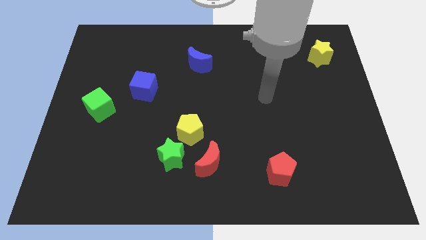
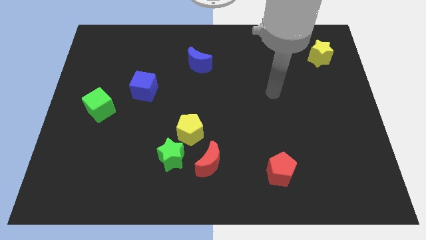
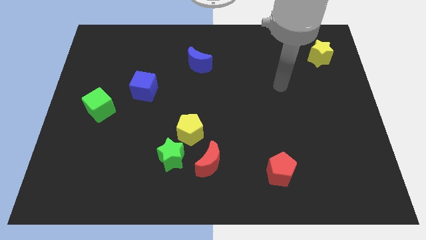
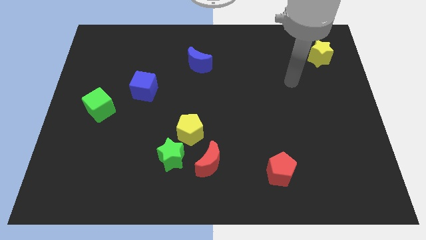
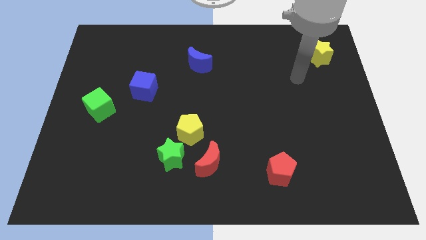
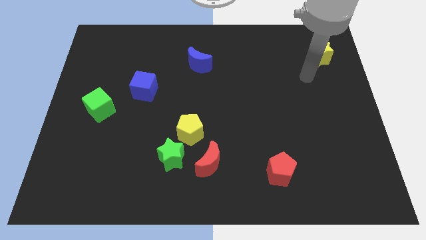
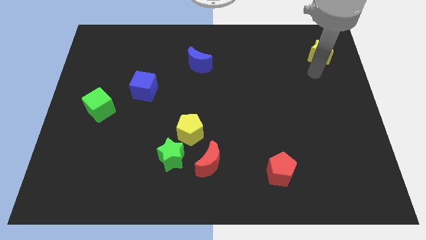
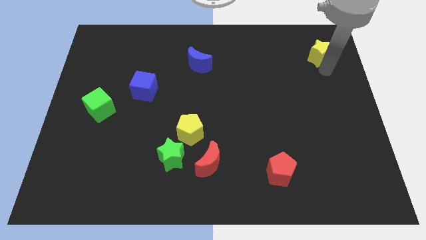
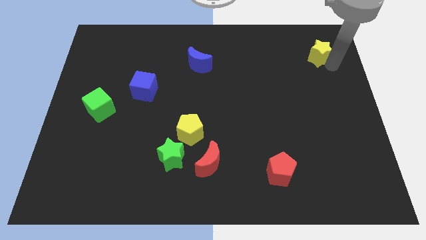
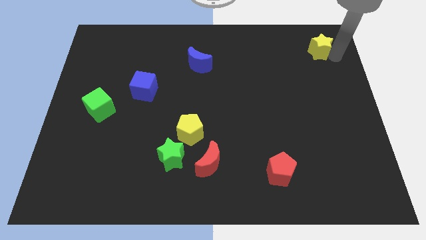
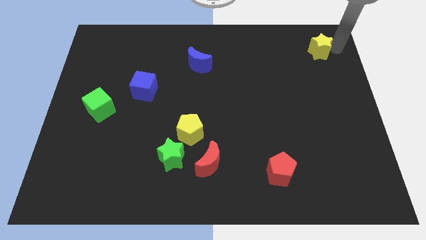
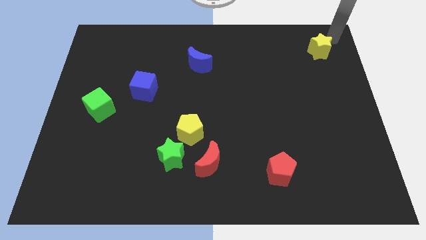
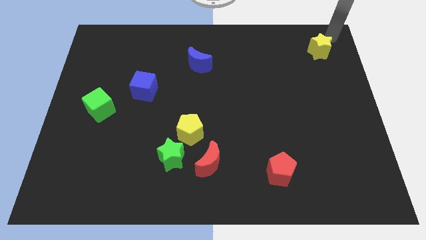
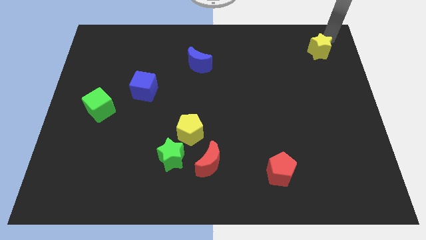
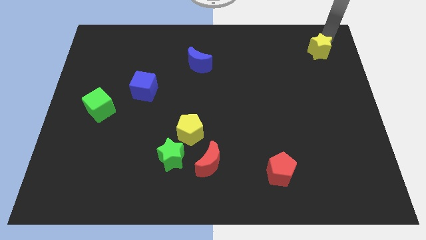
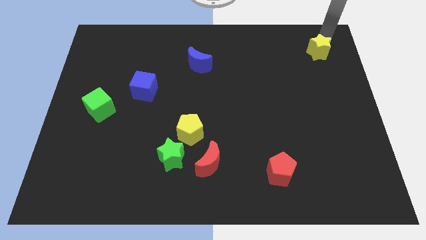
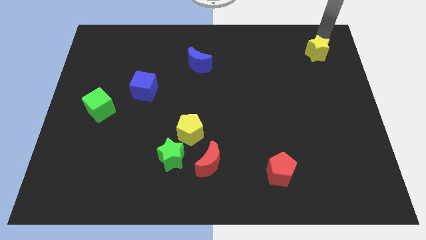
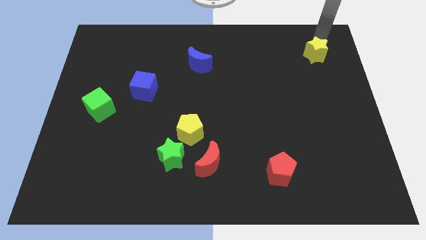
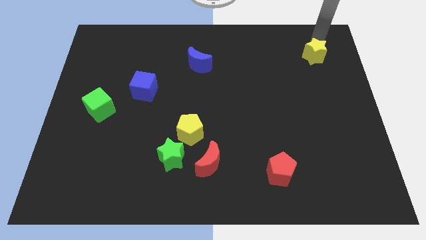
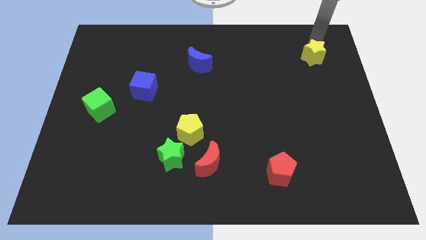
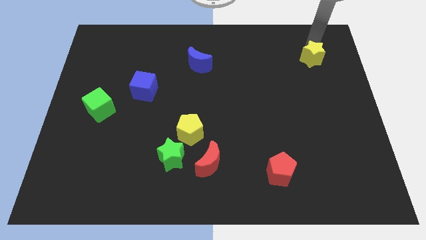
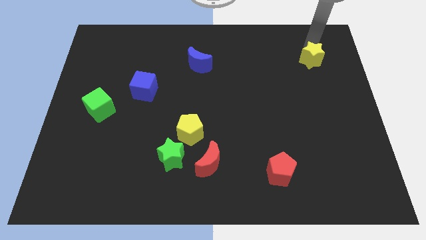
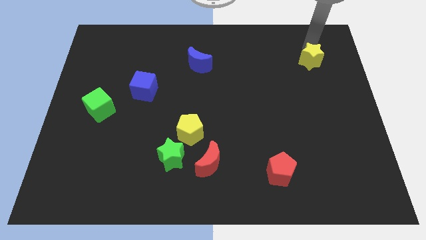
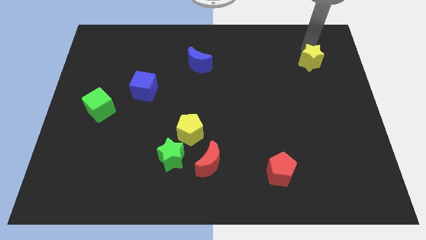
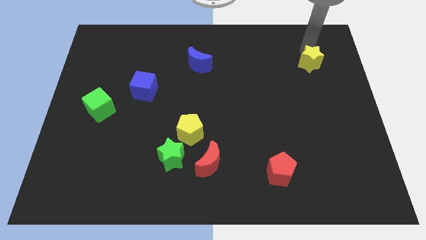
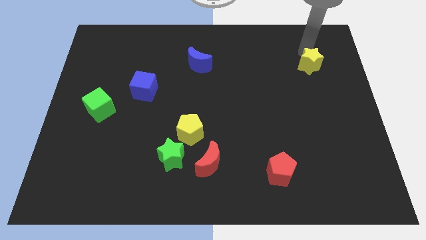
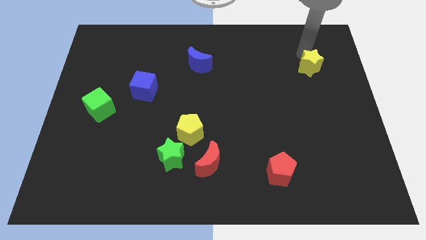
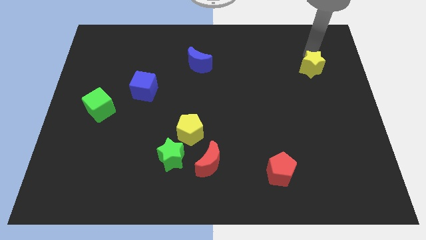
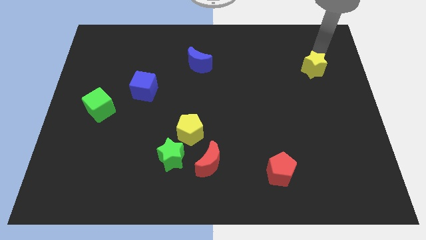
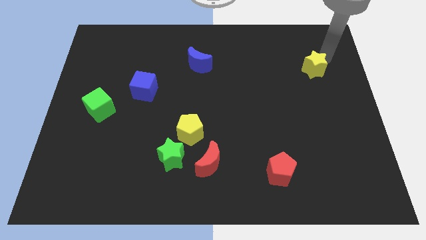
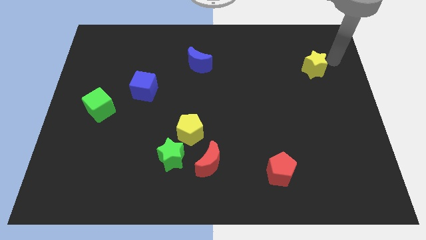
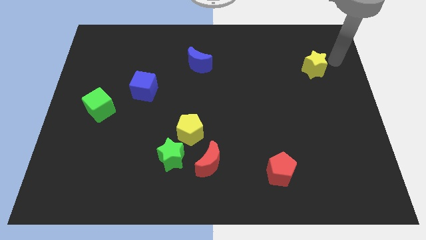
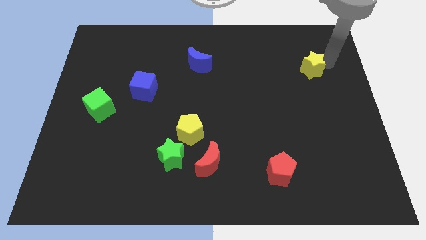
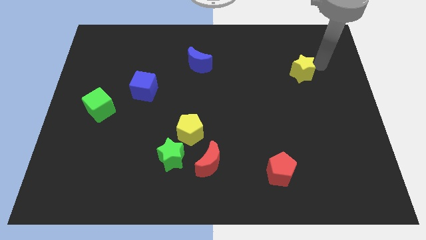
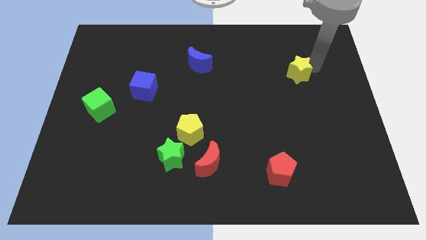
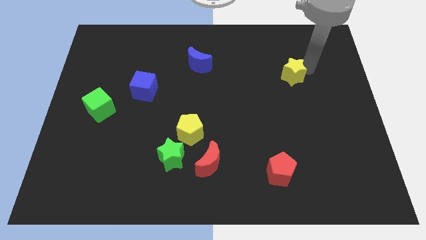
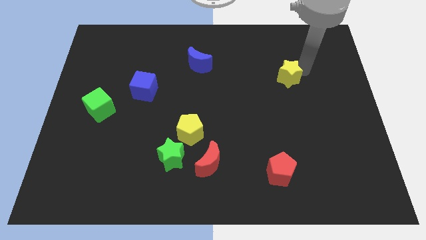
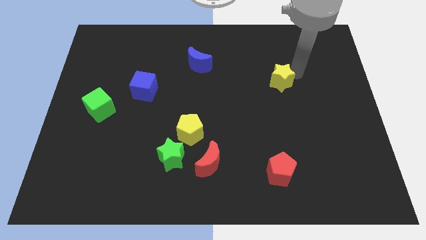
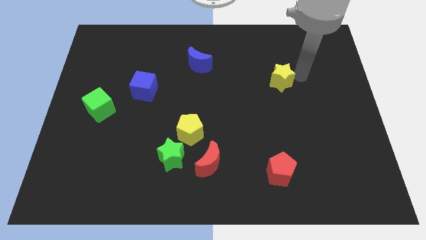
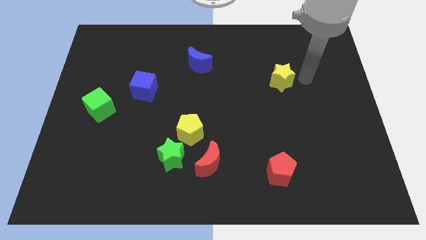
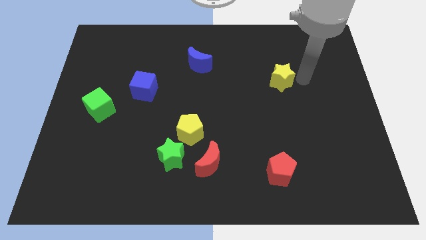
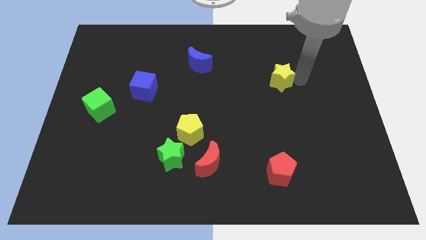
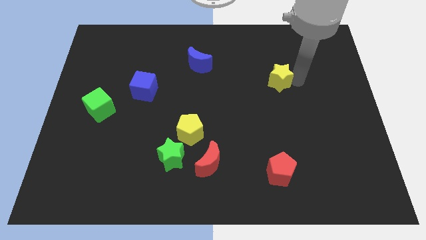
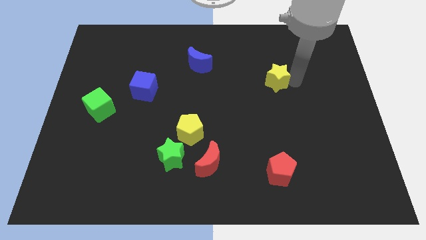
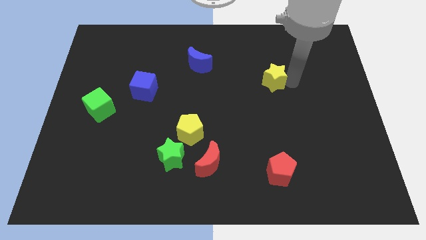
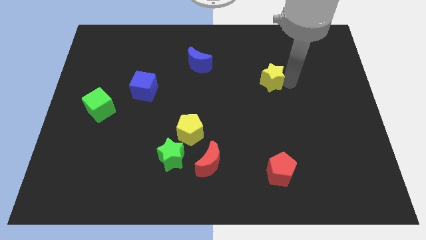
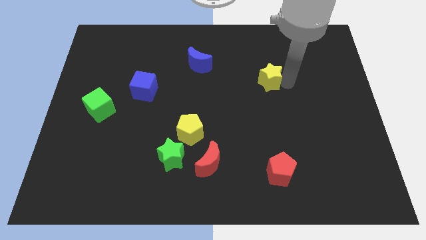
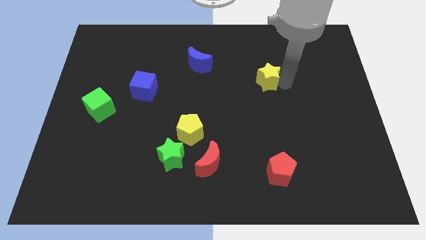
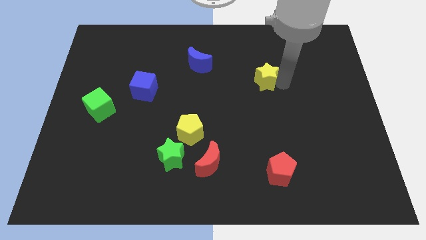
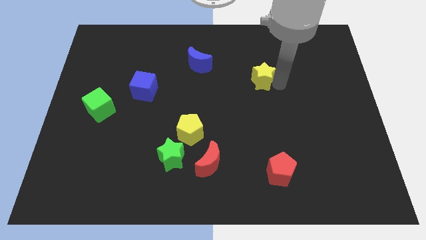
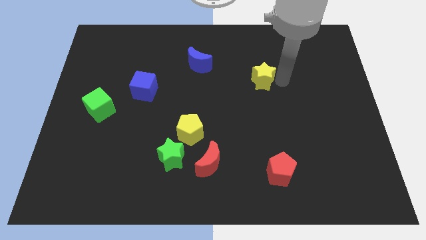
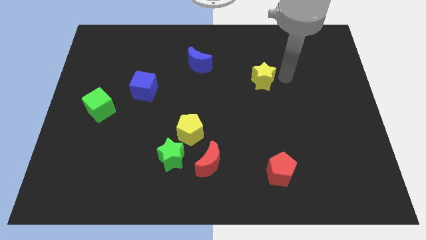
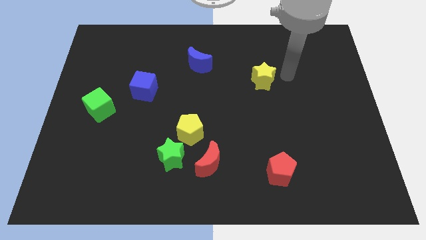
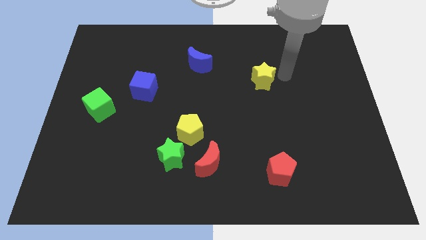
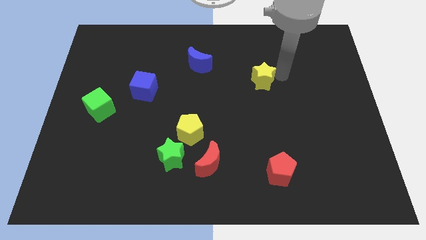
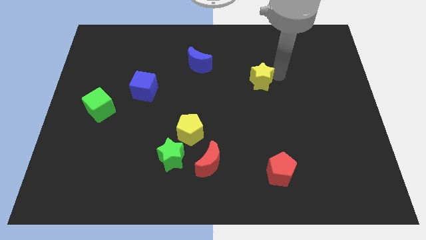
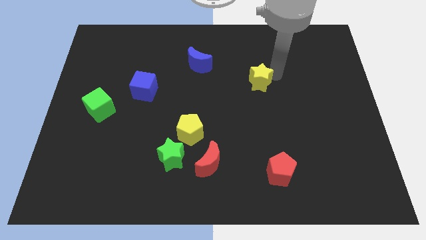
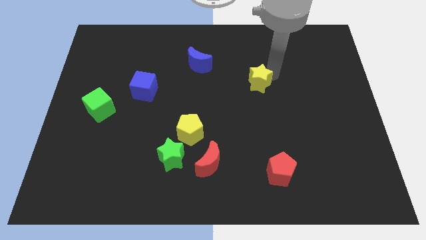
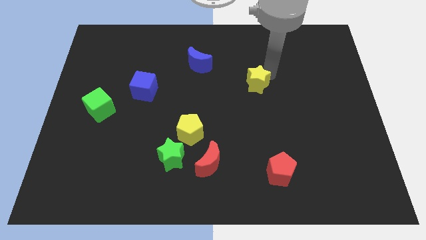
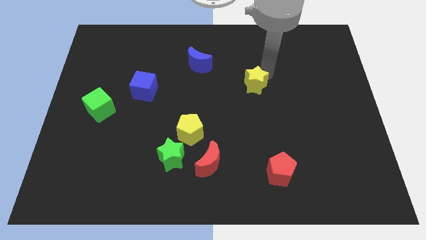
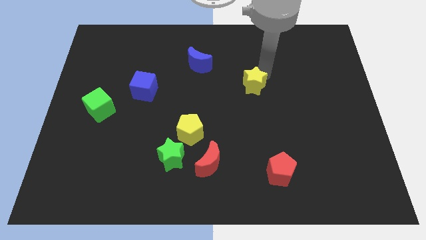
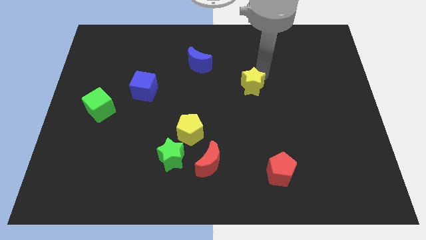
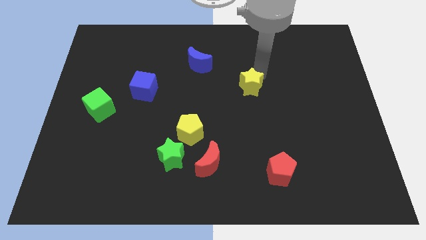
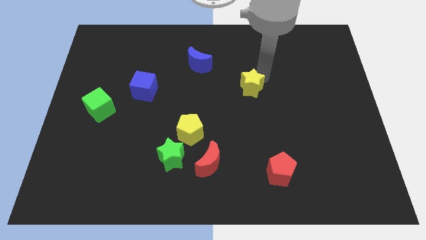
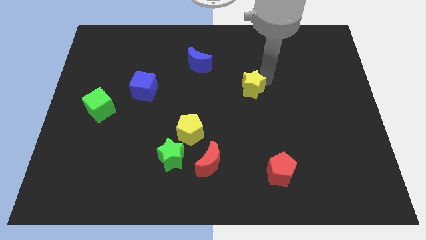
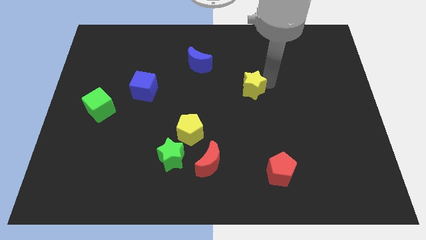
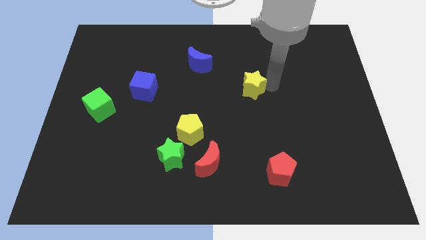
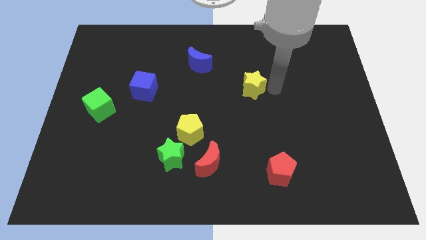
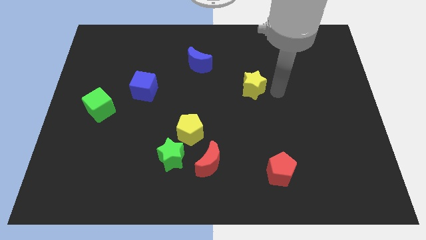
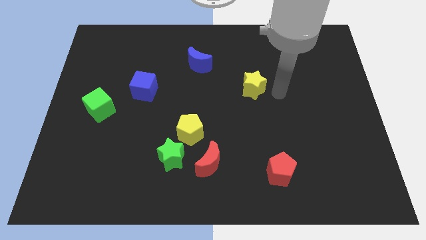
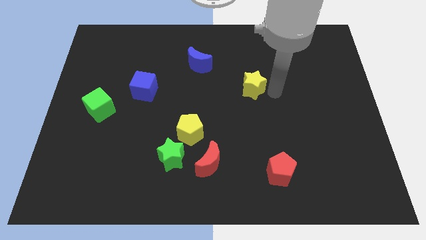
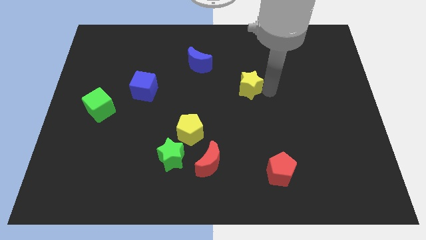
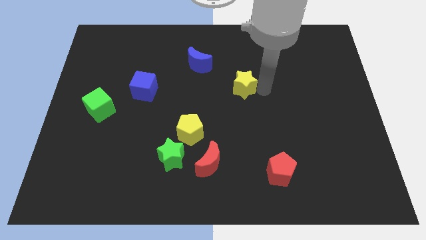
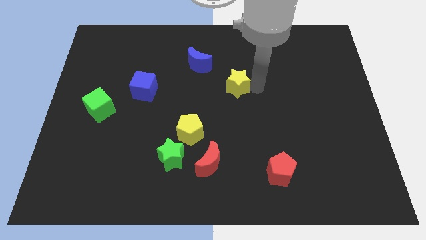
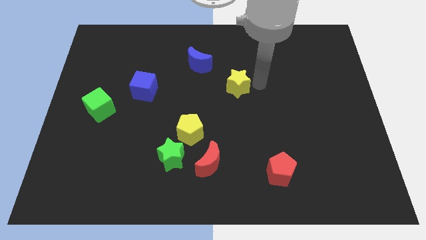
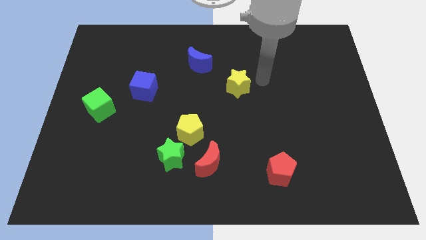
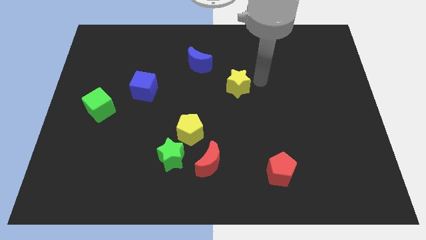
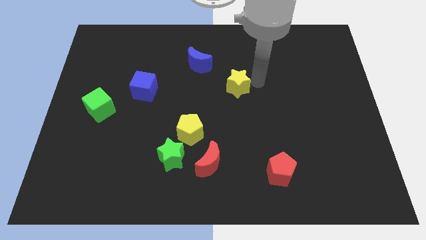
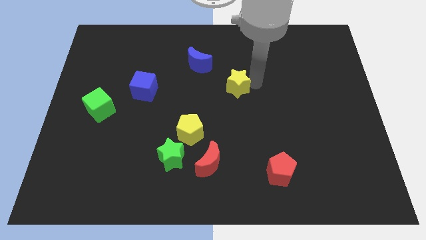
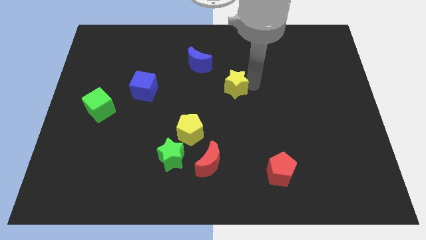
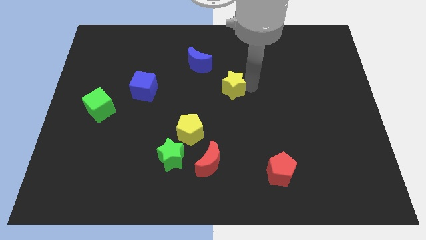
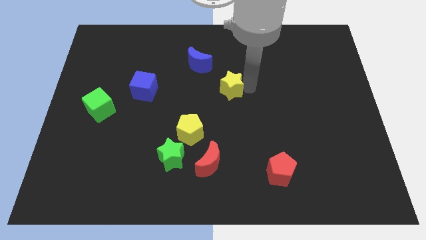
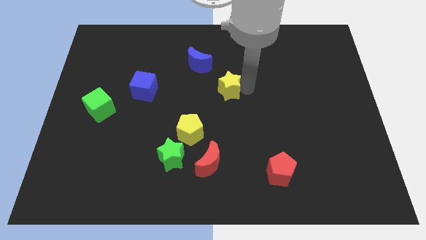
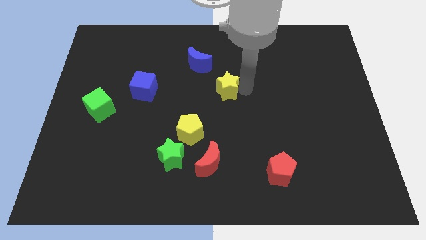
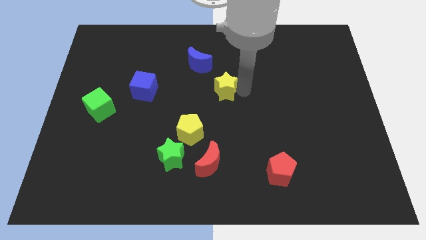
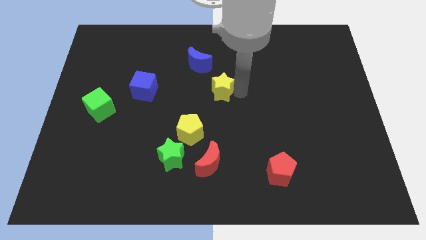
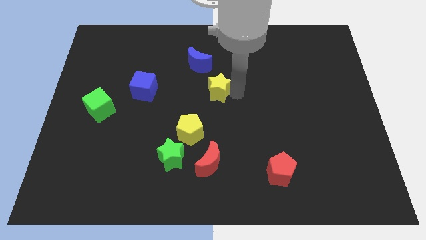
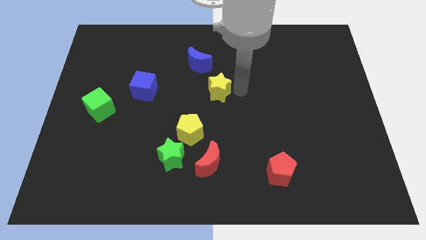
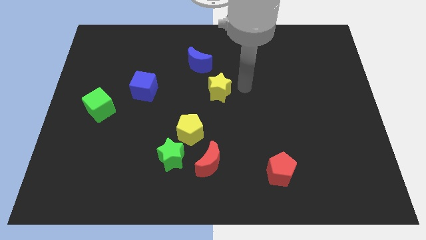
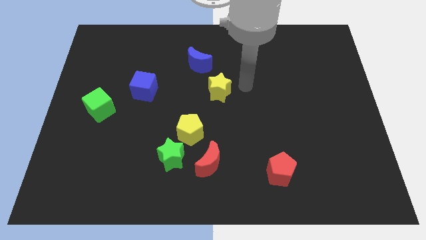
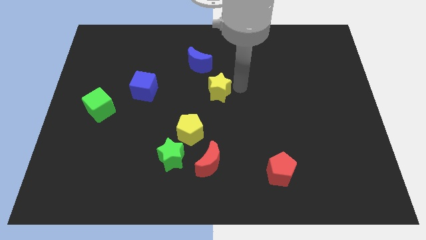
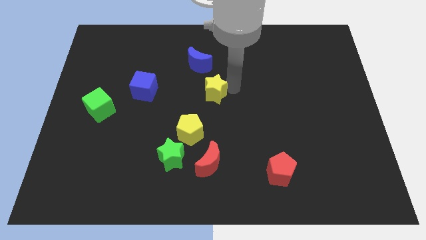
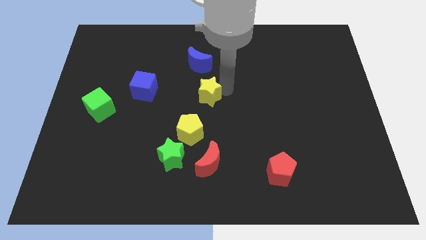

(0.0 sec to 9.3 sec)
slide the yellow star to the top side of the yellow pentagon
